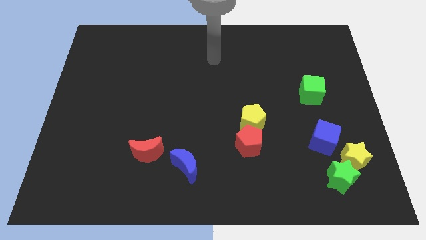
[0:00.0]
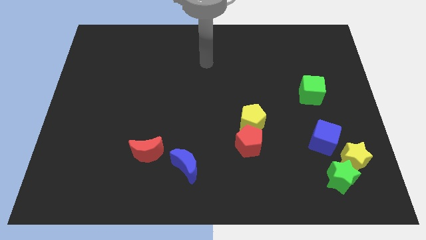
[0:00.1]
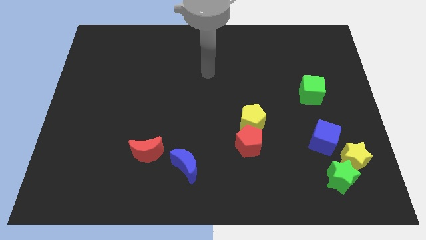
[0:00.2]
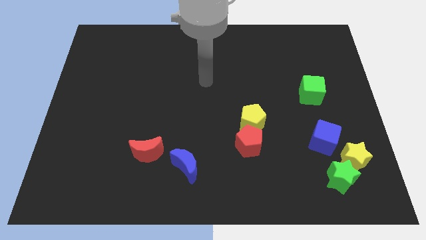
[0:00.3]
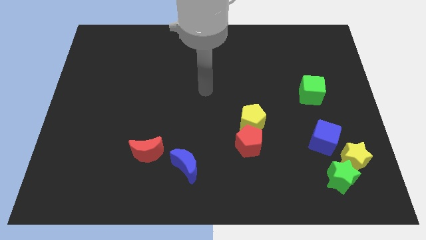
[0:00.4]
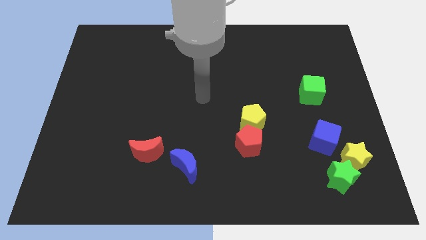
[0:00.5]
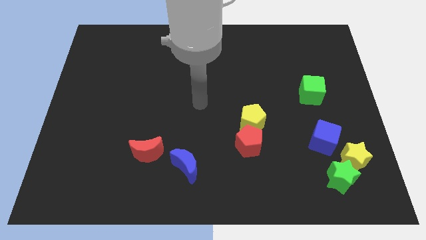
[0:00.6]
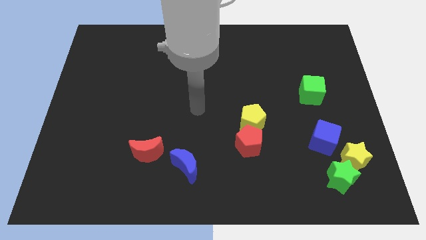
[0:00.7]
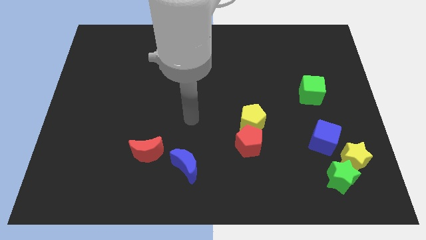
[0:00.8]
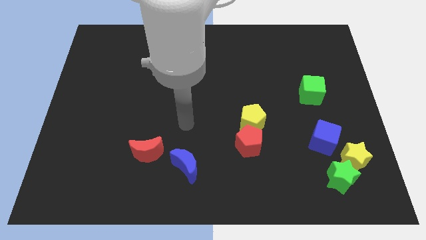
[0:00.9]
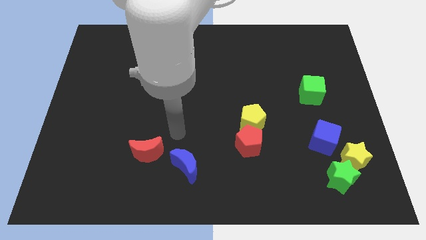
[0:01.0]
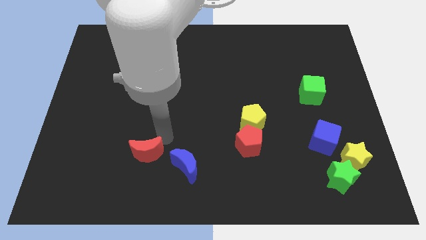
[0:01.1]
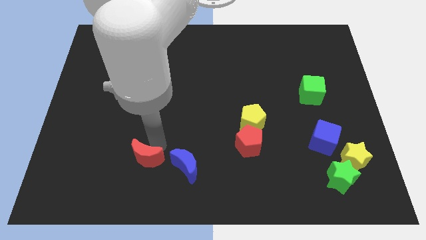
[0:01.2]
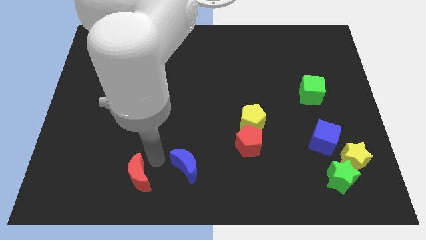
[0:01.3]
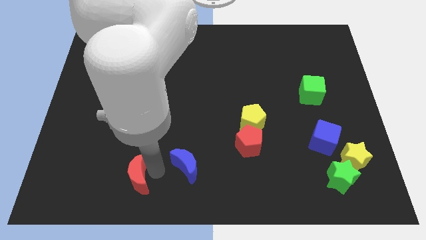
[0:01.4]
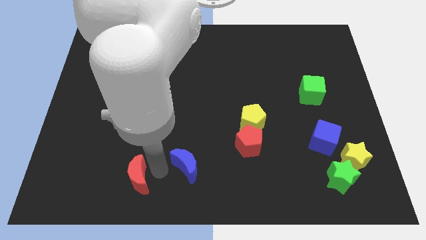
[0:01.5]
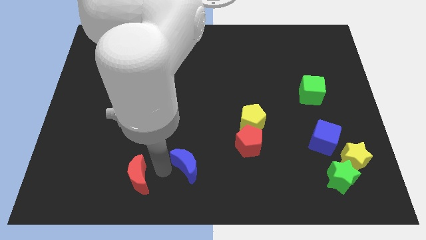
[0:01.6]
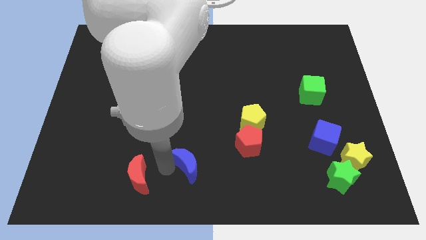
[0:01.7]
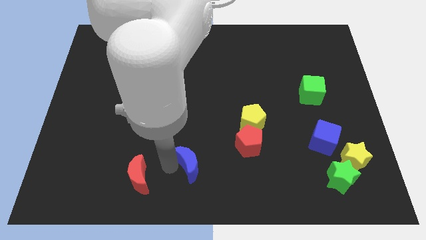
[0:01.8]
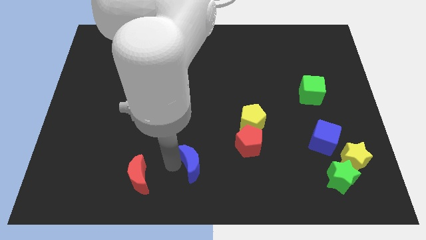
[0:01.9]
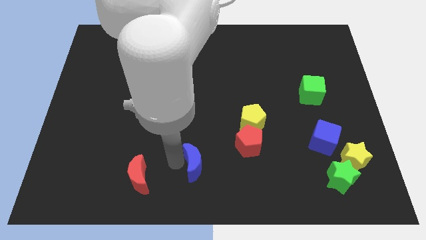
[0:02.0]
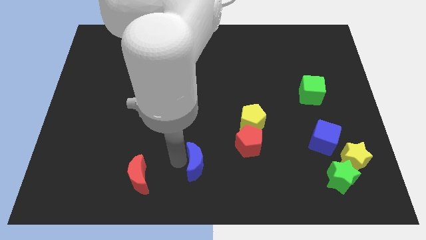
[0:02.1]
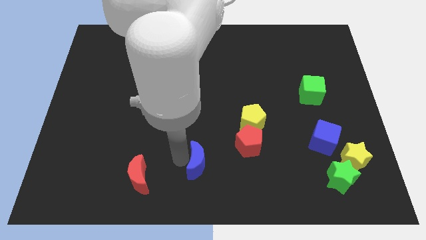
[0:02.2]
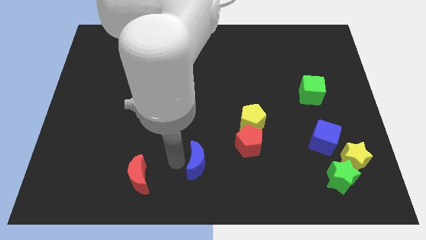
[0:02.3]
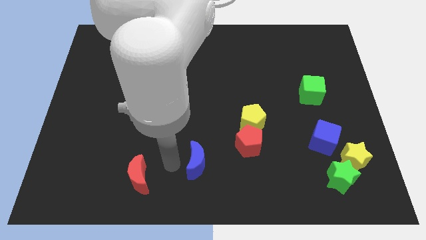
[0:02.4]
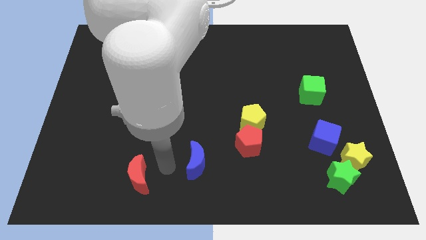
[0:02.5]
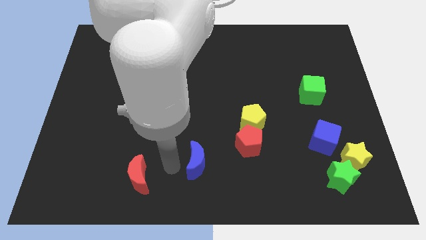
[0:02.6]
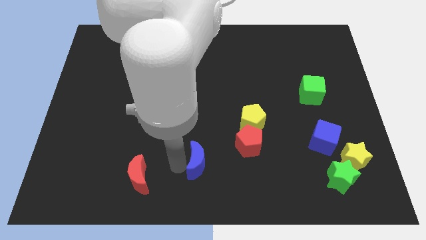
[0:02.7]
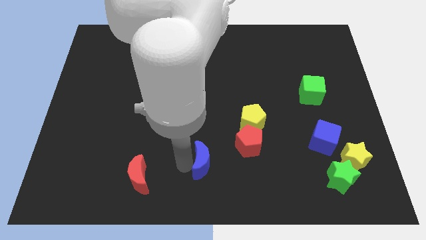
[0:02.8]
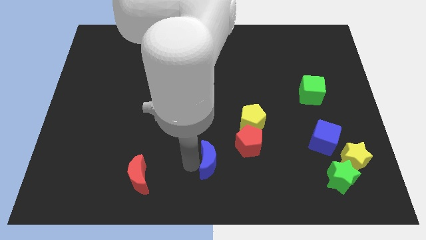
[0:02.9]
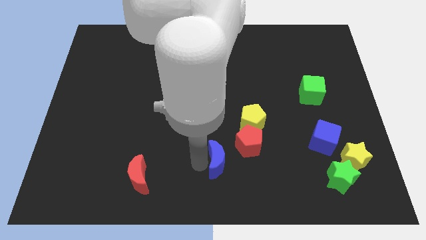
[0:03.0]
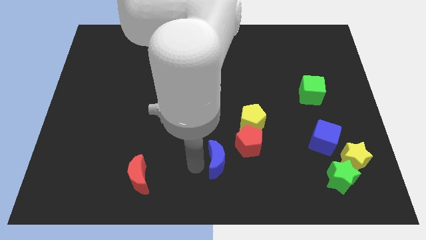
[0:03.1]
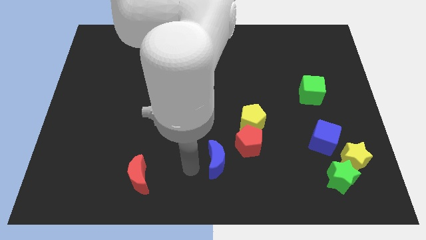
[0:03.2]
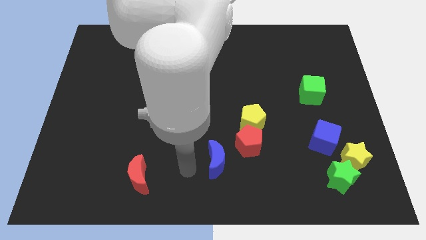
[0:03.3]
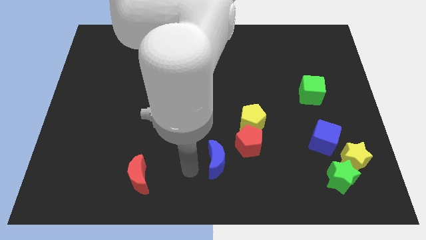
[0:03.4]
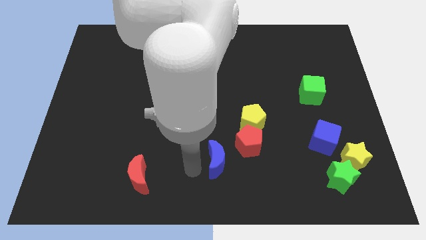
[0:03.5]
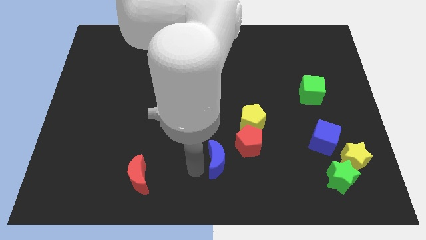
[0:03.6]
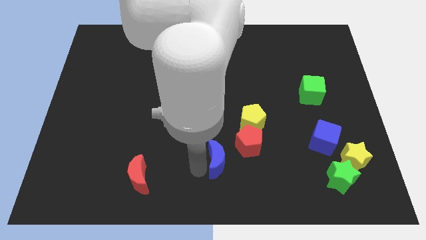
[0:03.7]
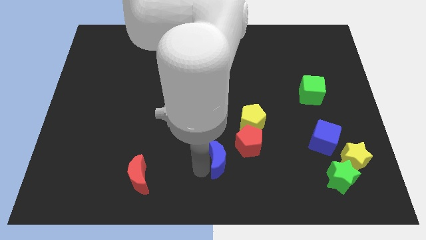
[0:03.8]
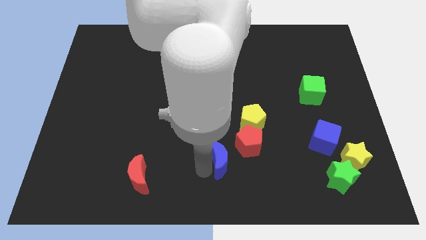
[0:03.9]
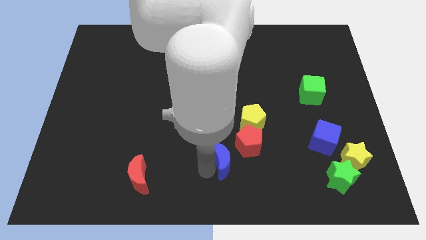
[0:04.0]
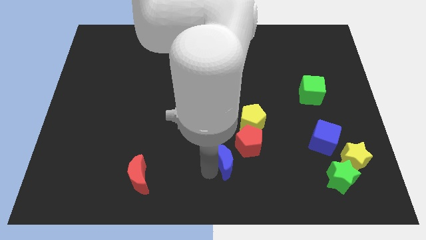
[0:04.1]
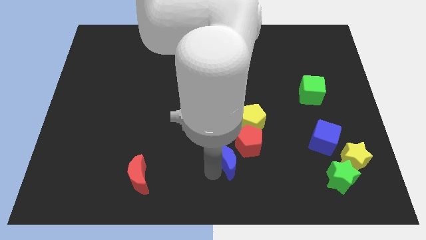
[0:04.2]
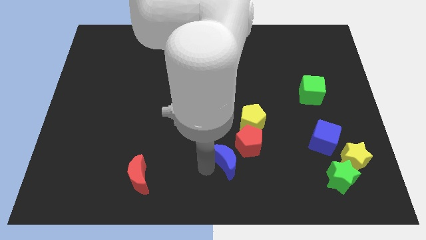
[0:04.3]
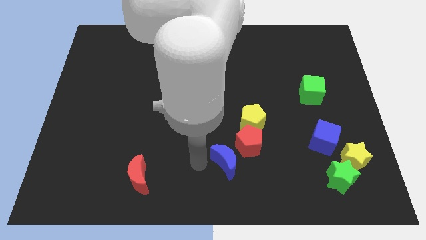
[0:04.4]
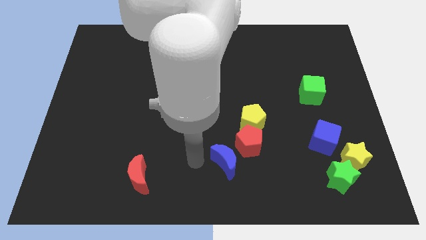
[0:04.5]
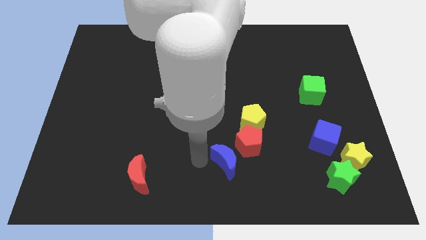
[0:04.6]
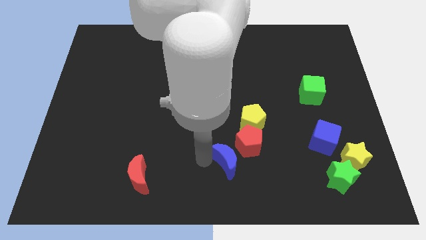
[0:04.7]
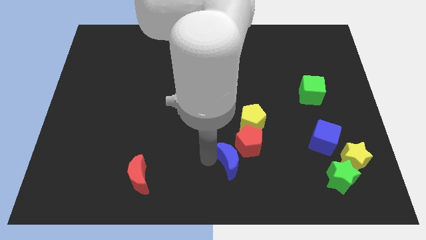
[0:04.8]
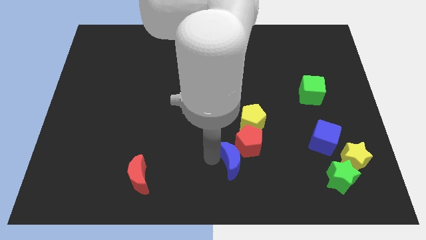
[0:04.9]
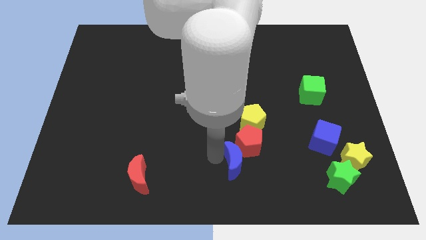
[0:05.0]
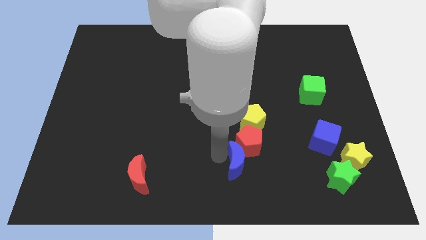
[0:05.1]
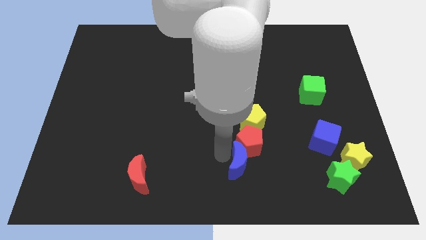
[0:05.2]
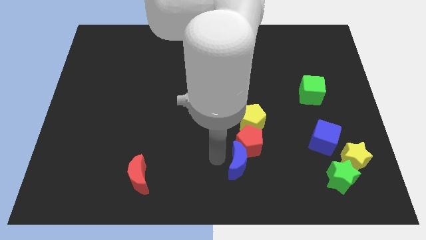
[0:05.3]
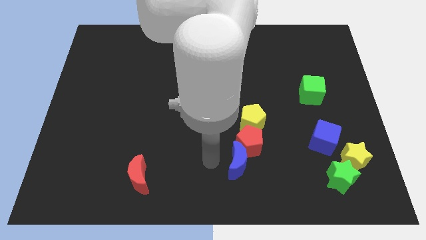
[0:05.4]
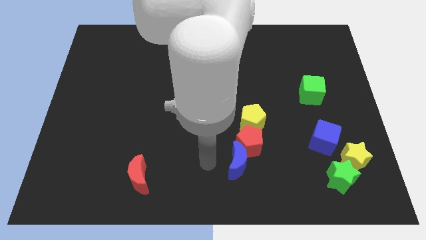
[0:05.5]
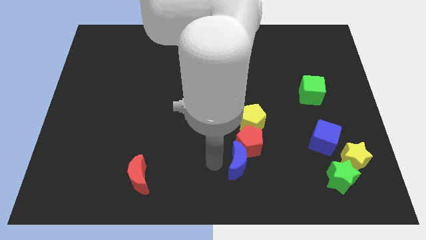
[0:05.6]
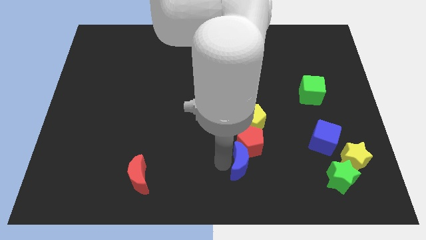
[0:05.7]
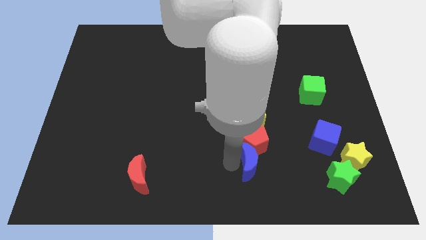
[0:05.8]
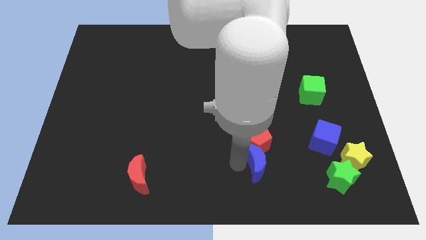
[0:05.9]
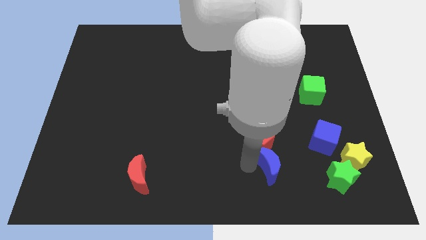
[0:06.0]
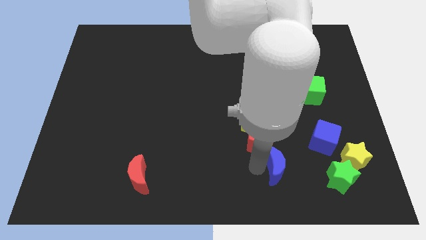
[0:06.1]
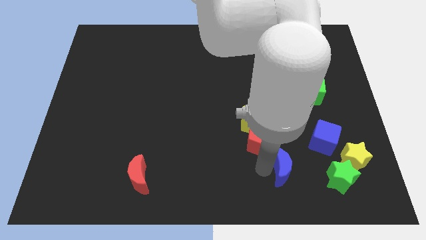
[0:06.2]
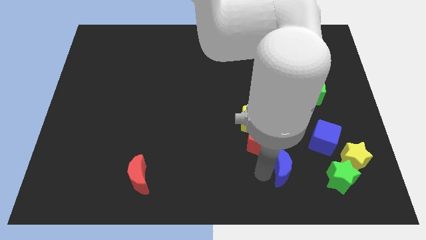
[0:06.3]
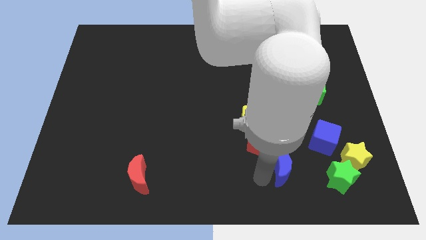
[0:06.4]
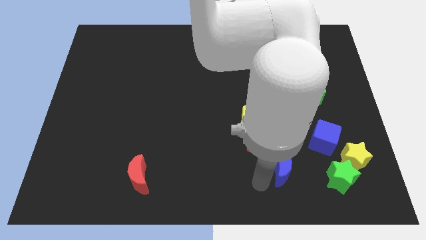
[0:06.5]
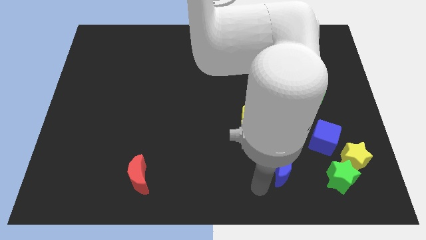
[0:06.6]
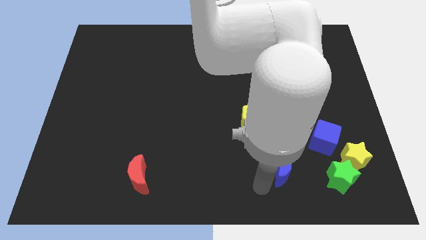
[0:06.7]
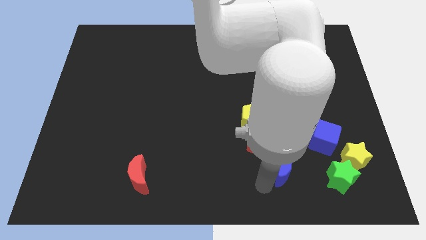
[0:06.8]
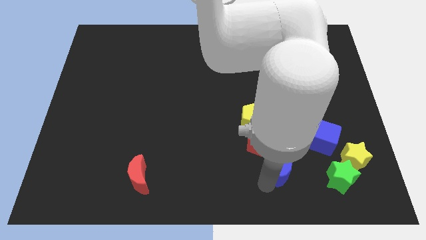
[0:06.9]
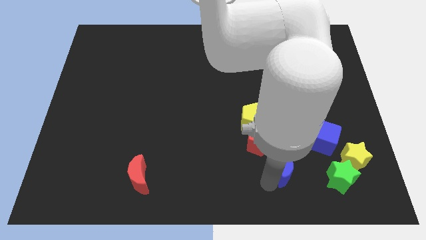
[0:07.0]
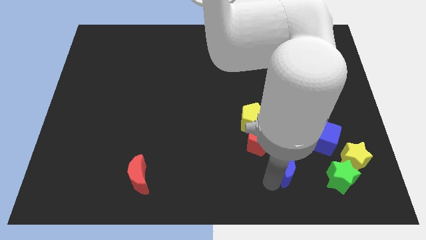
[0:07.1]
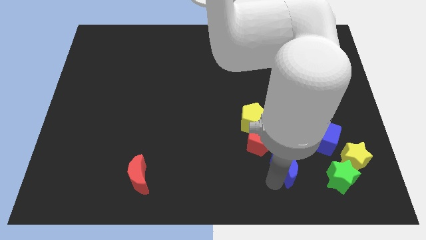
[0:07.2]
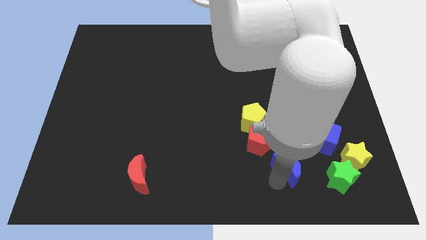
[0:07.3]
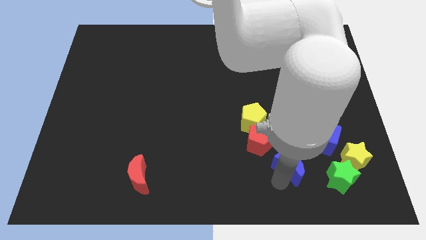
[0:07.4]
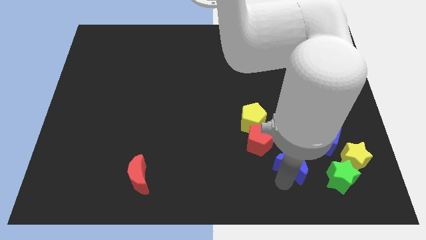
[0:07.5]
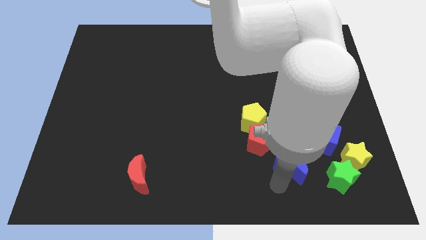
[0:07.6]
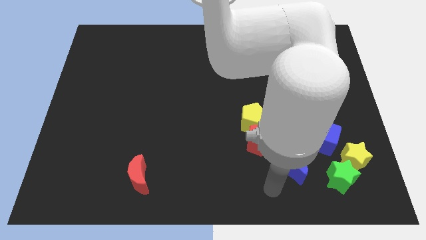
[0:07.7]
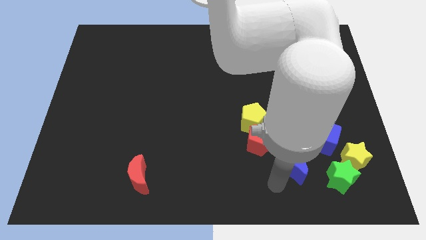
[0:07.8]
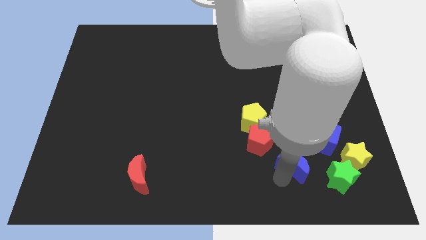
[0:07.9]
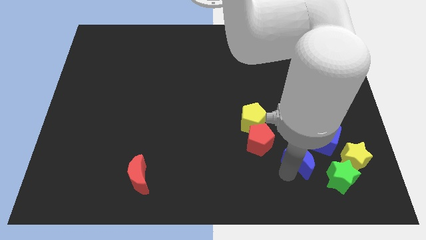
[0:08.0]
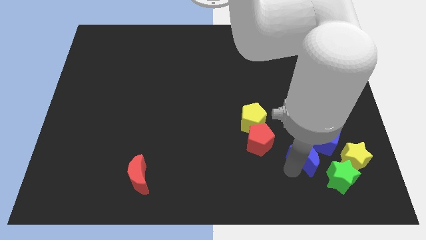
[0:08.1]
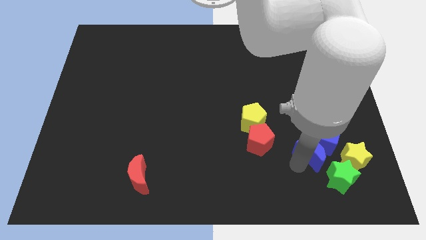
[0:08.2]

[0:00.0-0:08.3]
slide the blue moon close to the blue cube
